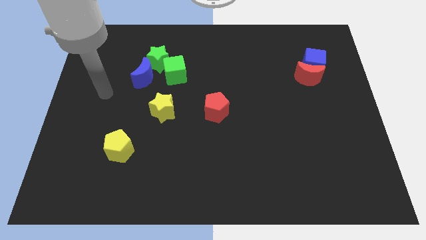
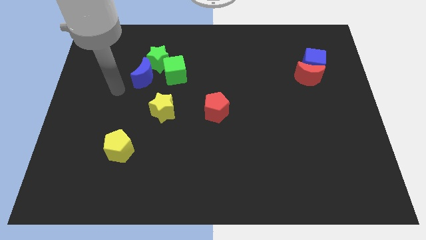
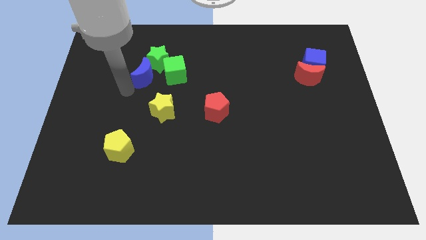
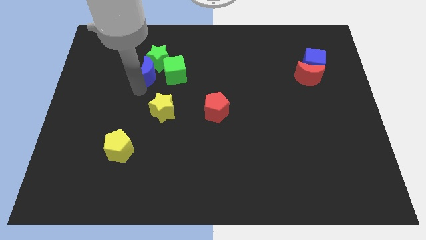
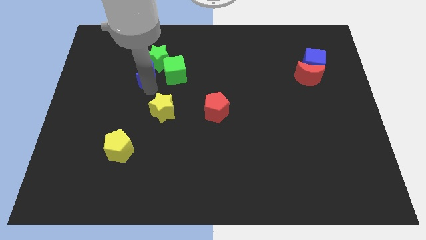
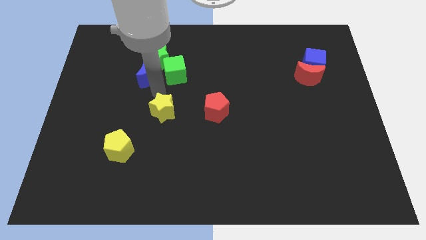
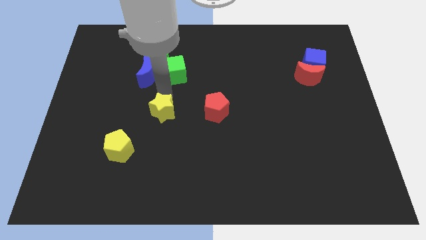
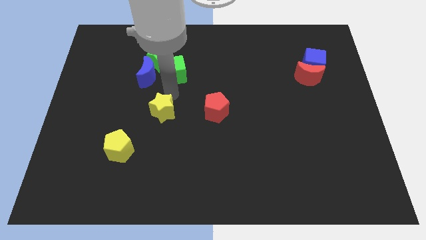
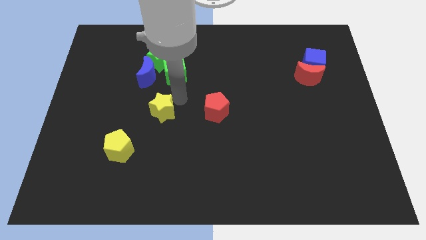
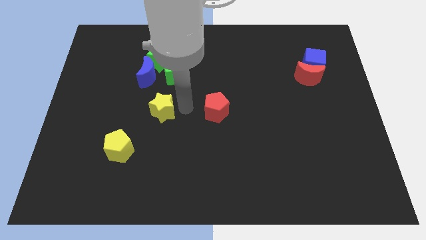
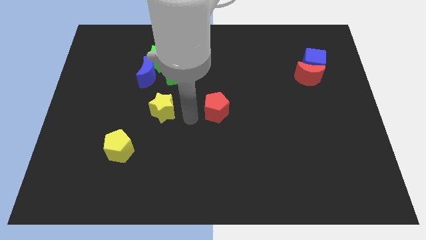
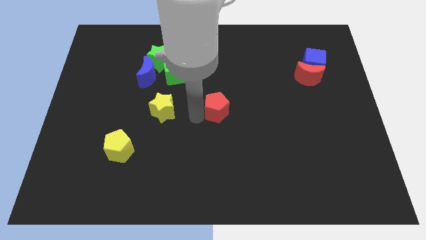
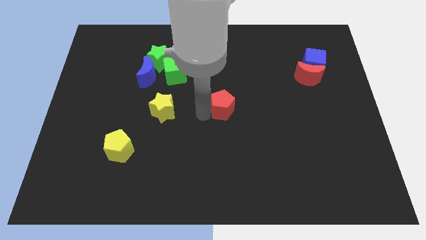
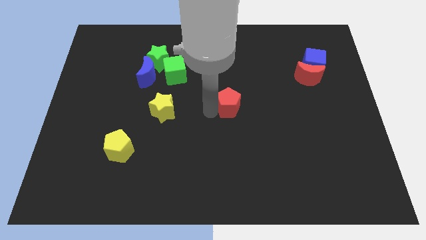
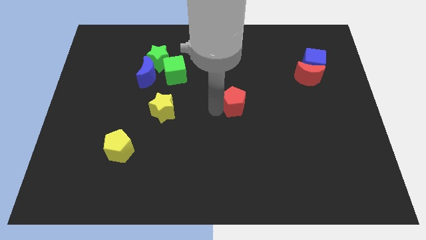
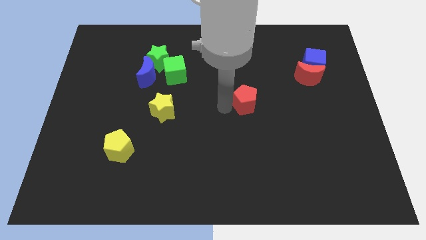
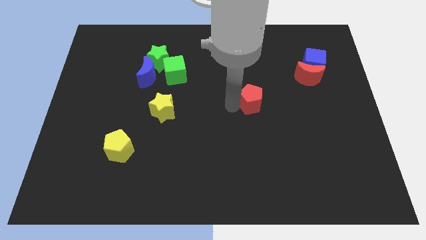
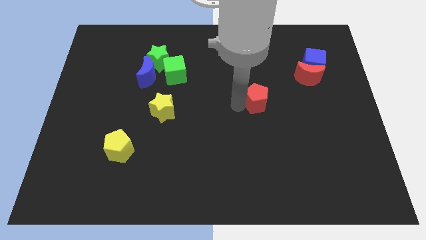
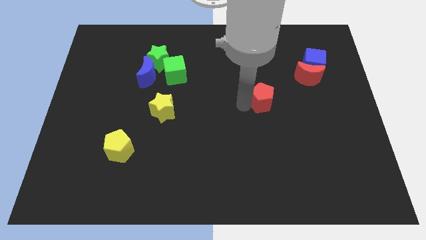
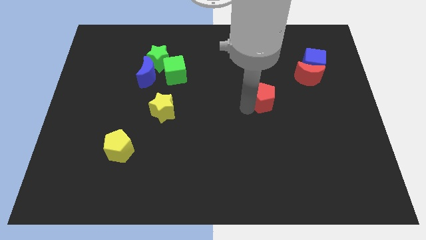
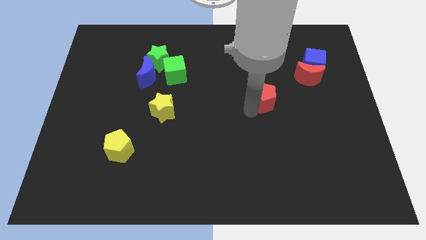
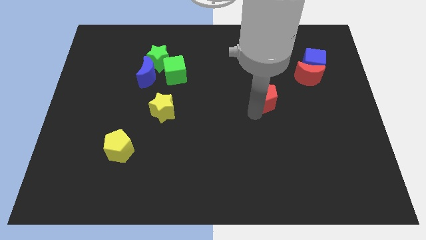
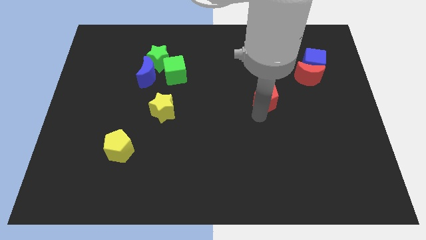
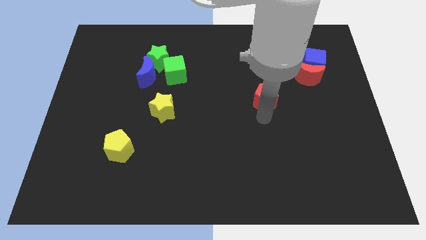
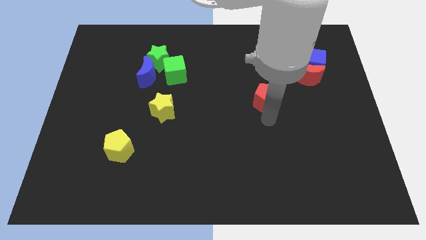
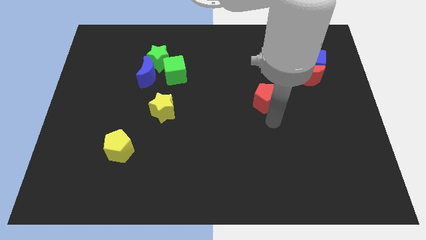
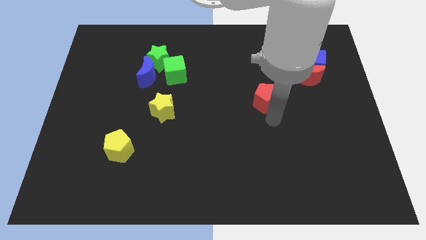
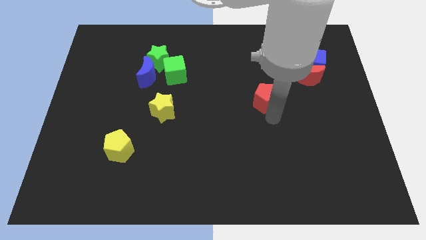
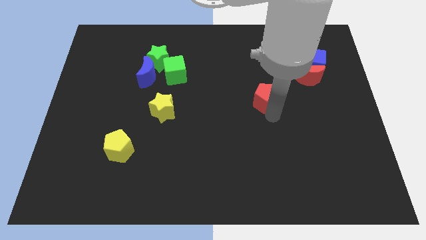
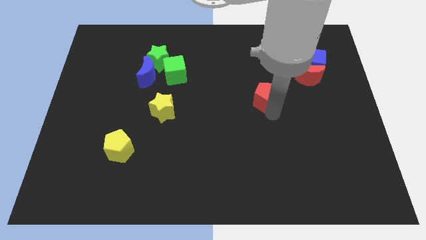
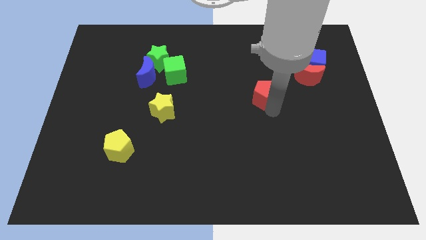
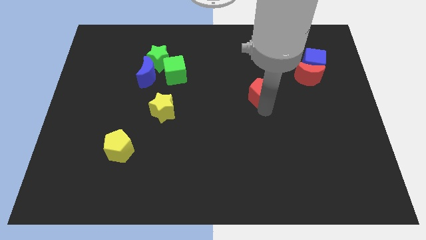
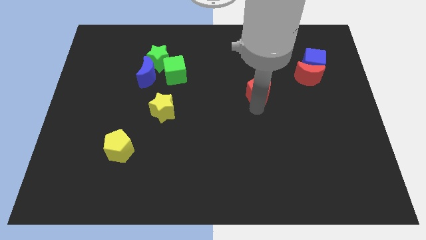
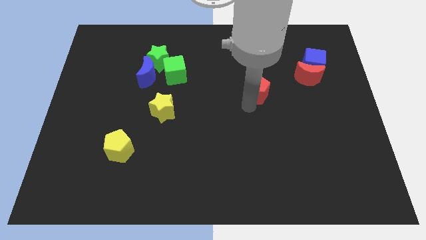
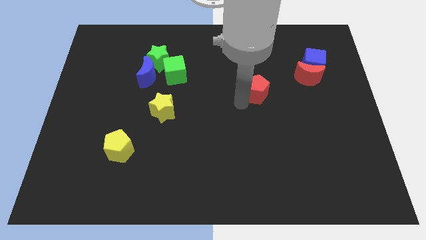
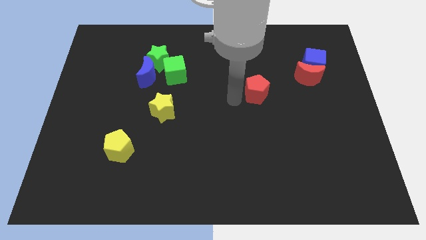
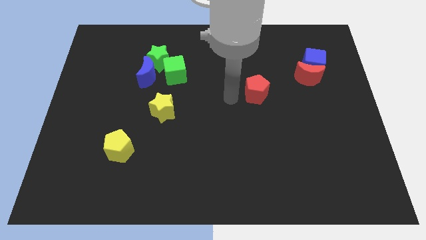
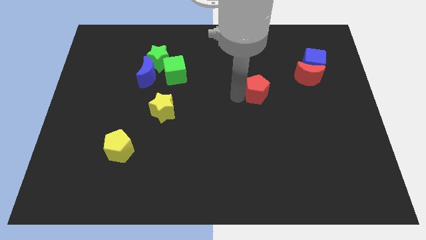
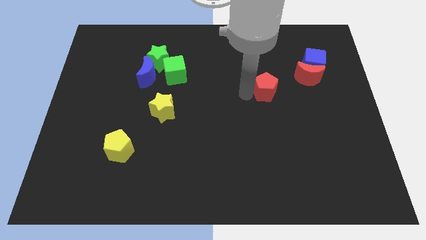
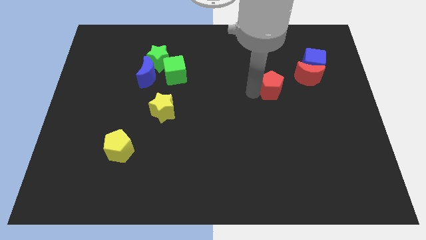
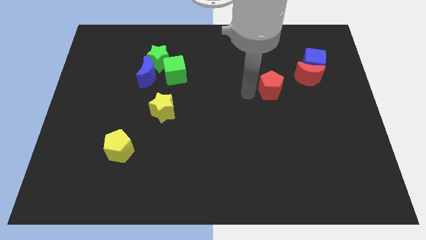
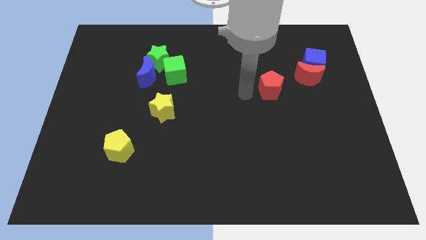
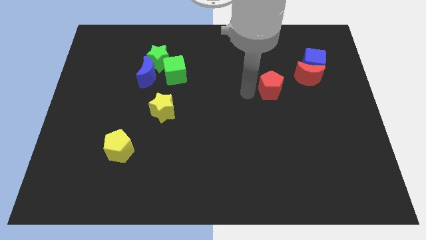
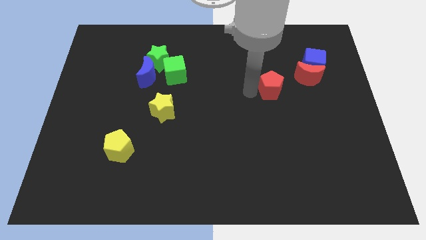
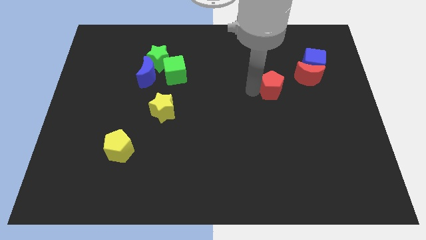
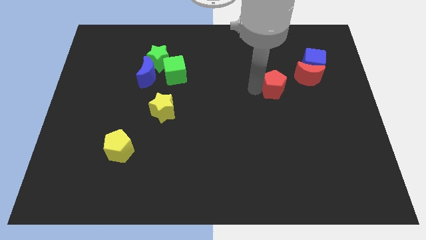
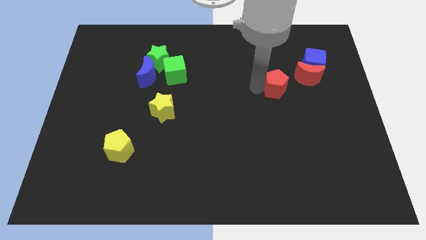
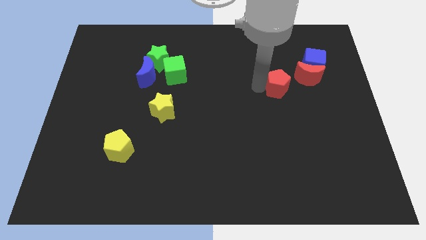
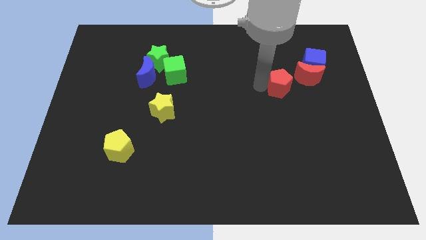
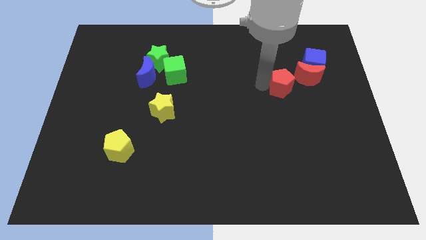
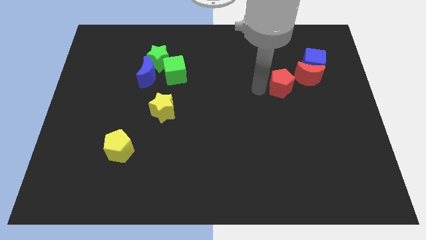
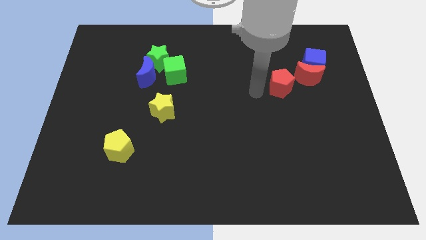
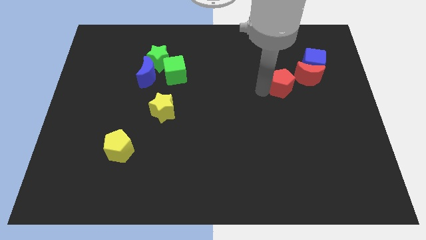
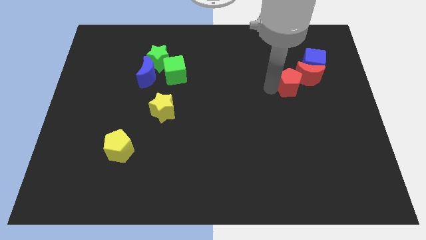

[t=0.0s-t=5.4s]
push the red pentagon towards the red moon

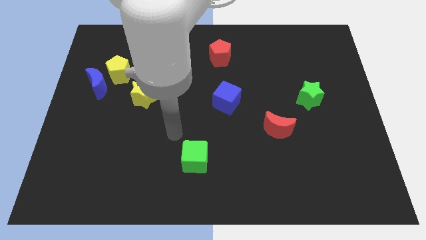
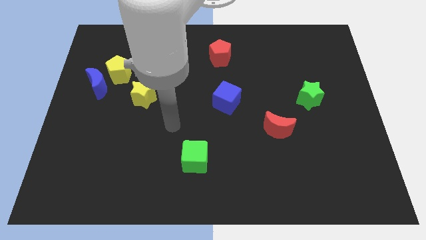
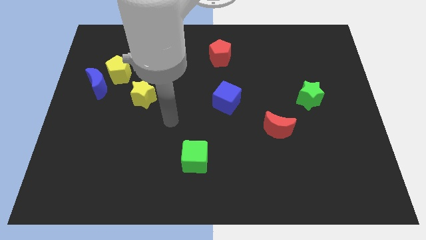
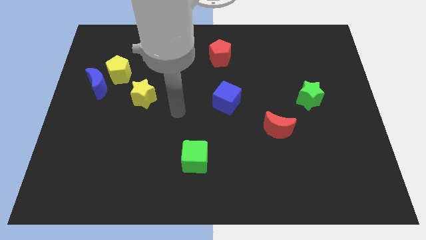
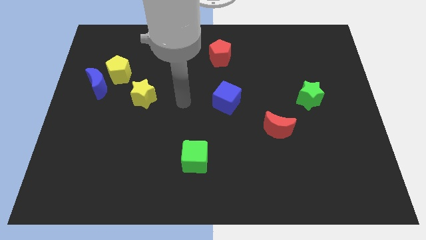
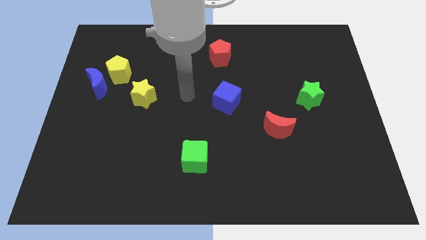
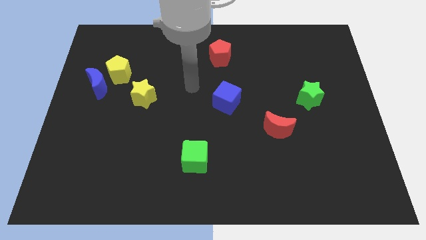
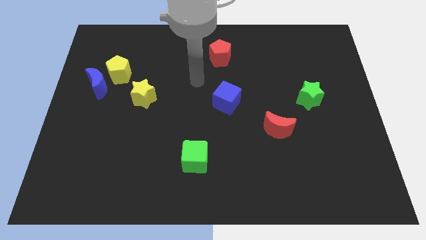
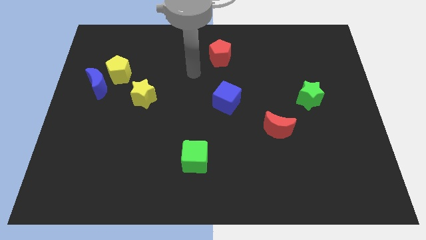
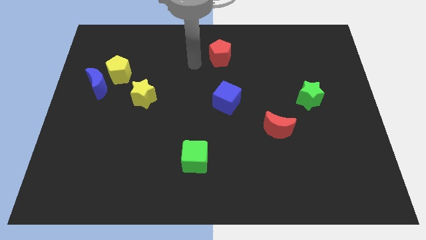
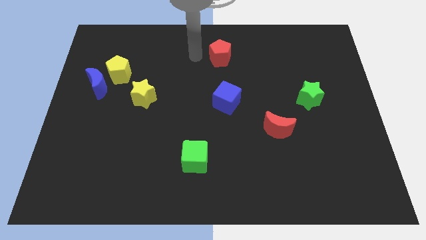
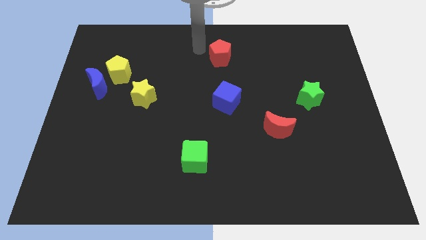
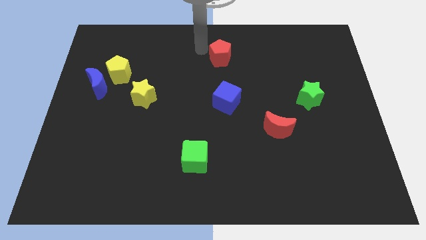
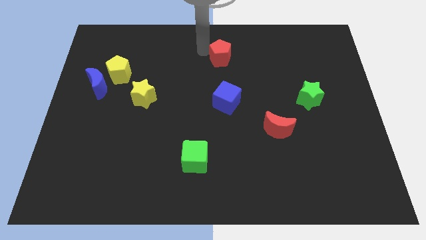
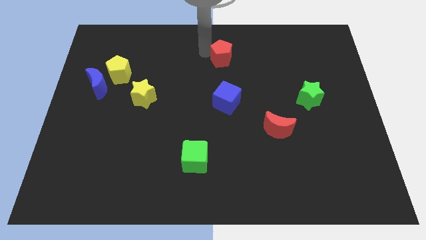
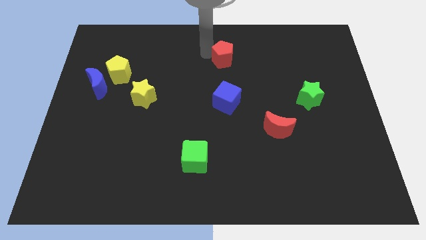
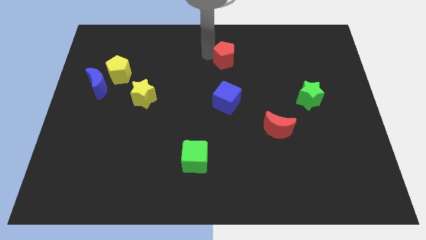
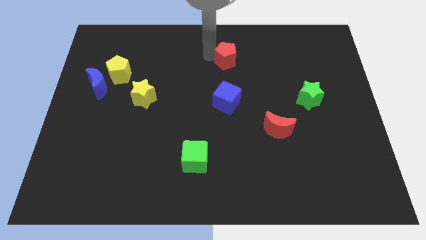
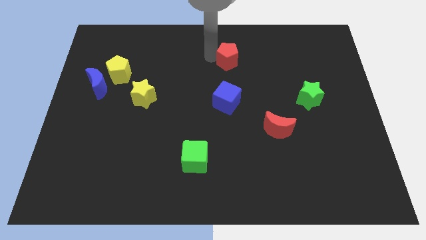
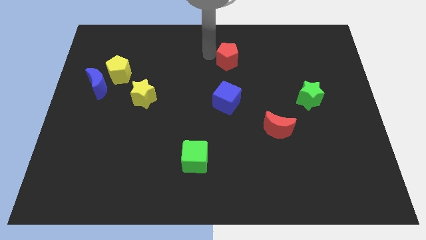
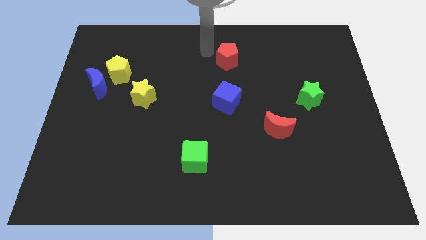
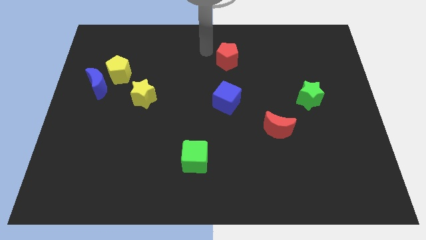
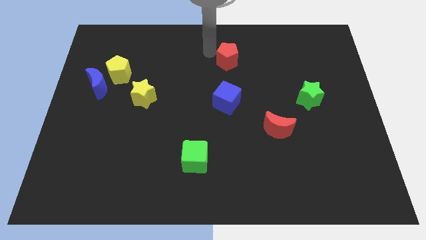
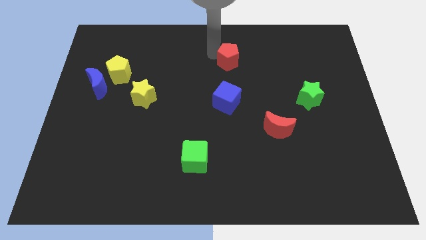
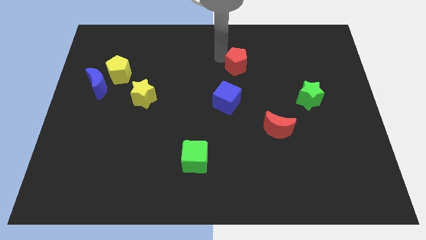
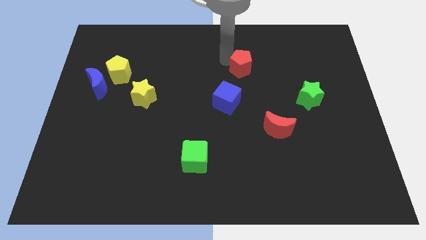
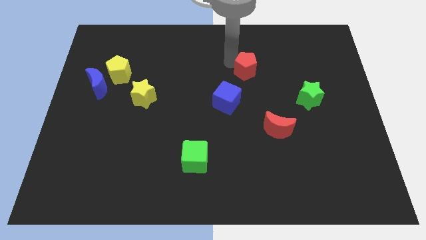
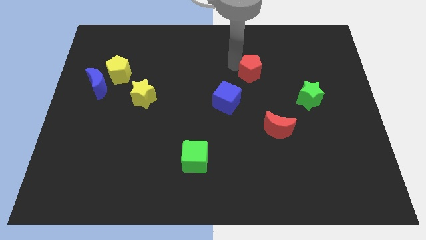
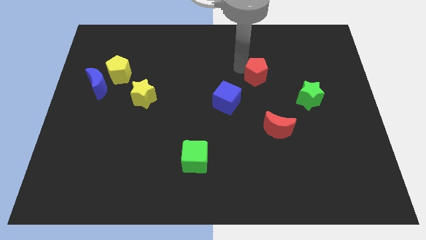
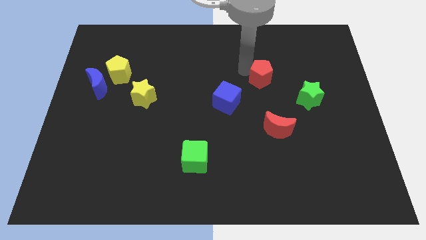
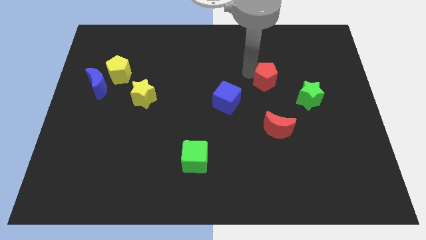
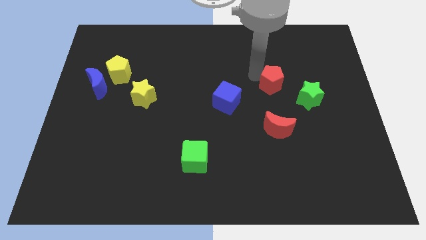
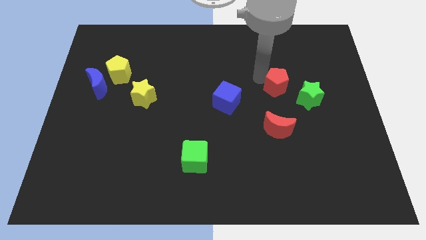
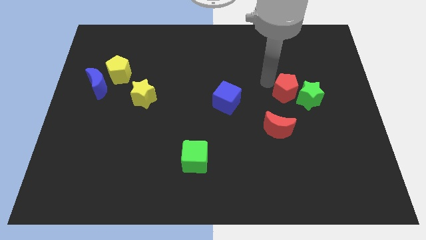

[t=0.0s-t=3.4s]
put the red pentagon towards the green star
